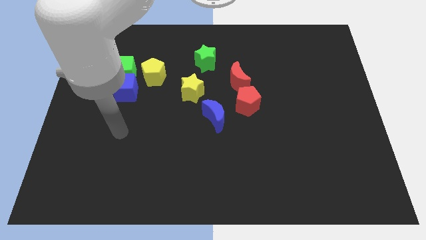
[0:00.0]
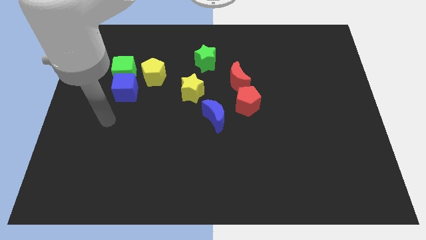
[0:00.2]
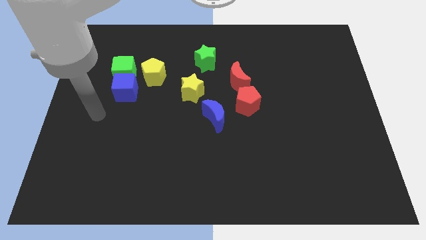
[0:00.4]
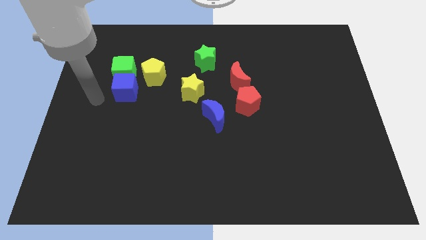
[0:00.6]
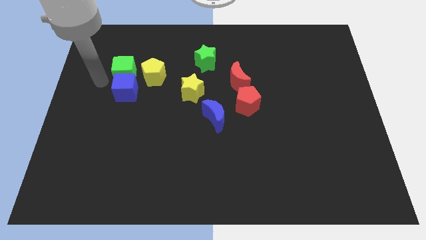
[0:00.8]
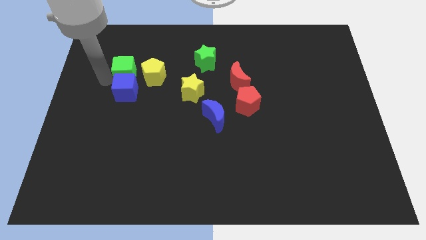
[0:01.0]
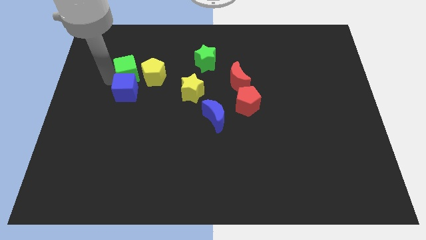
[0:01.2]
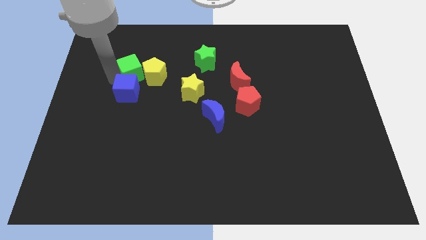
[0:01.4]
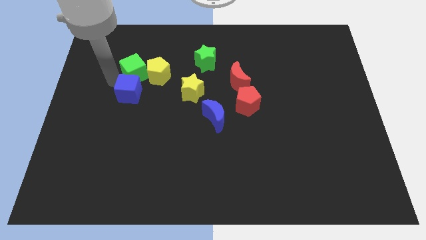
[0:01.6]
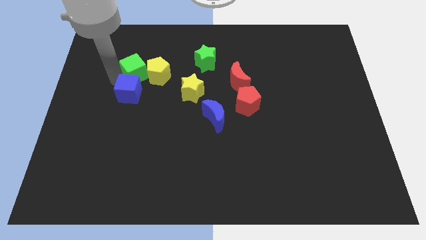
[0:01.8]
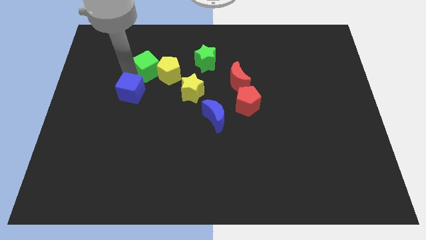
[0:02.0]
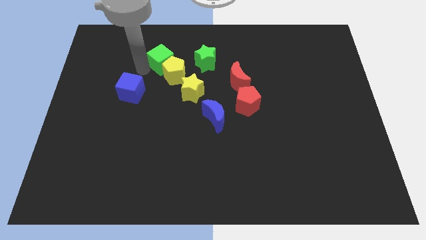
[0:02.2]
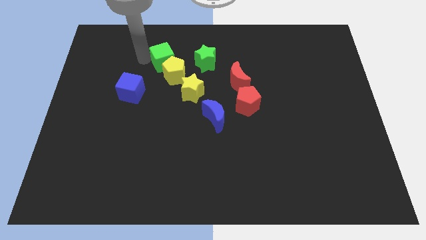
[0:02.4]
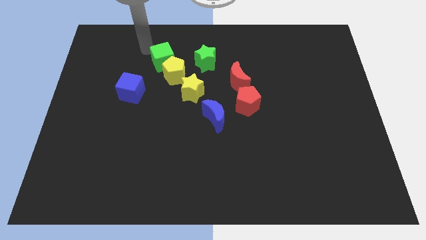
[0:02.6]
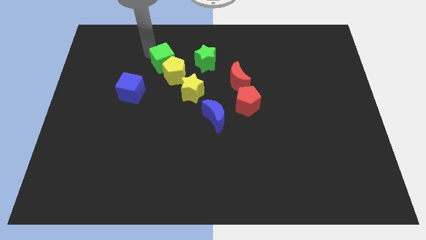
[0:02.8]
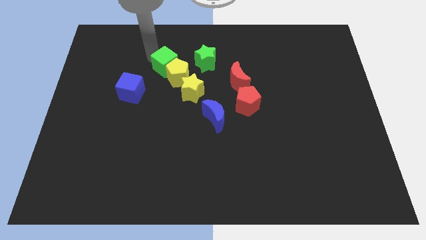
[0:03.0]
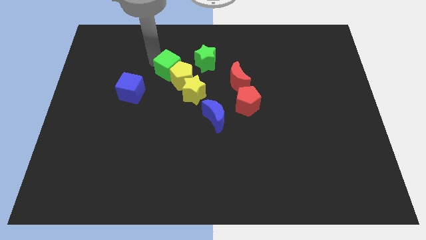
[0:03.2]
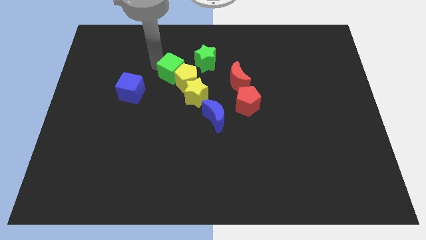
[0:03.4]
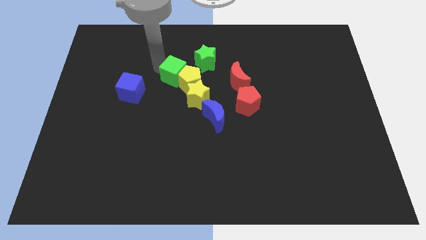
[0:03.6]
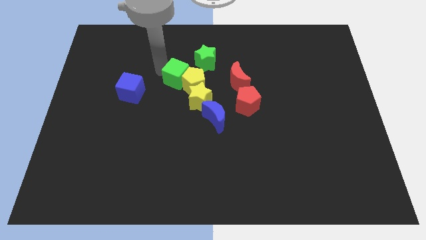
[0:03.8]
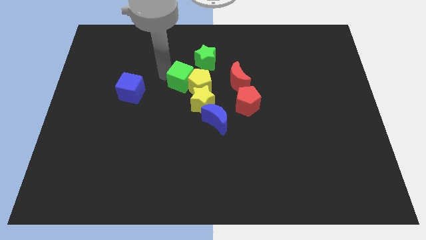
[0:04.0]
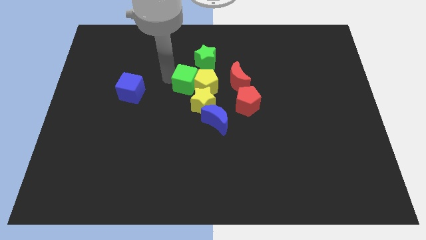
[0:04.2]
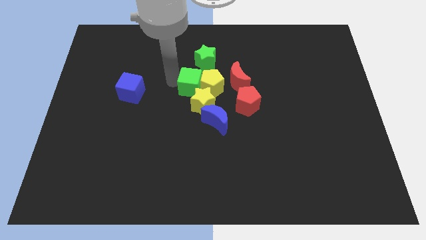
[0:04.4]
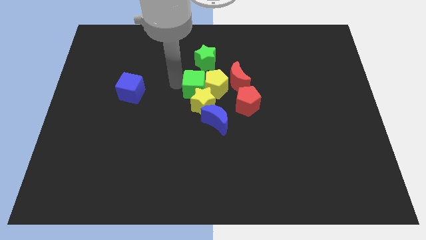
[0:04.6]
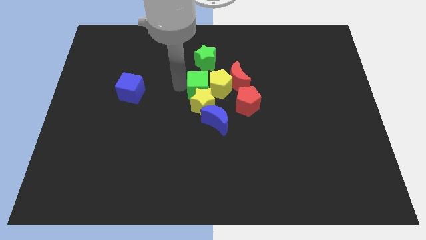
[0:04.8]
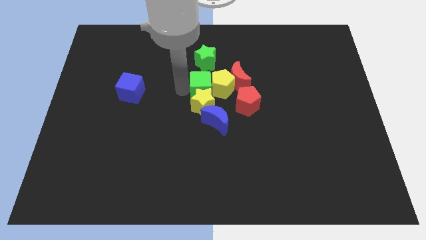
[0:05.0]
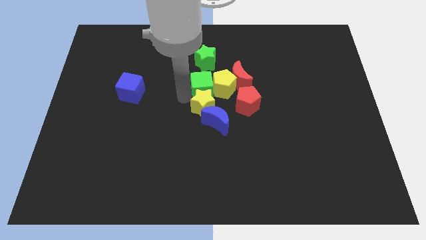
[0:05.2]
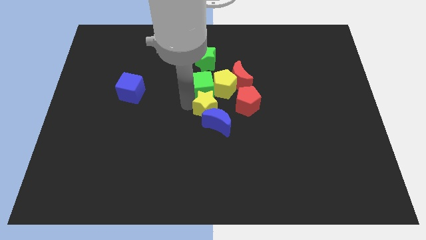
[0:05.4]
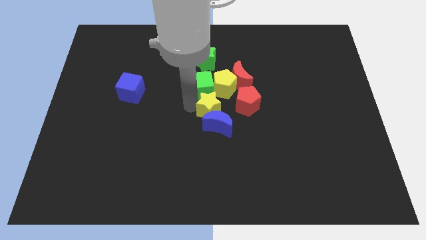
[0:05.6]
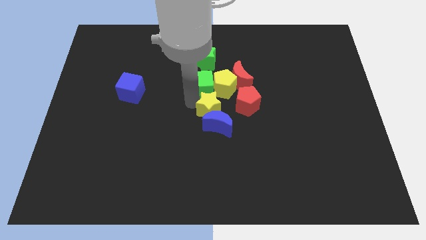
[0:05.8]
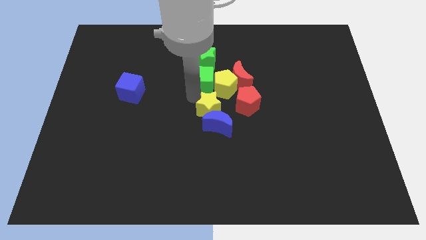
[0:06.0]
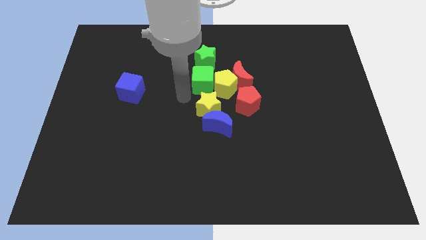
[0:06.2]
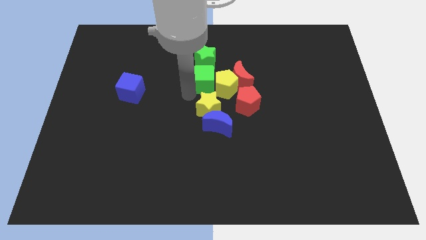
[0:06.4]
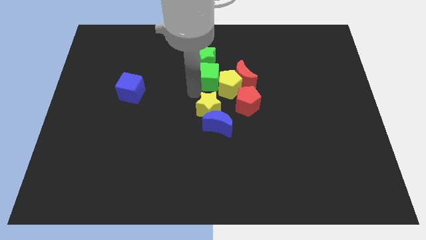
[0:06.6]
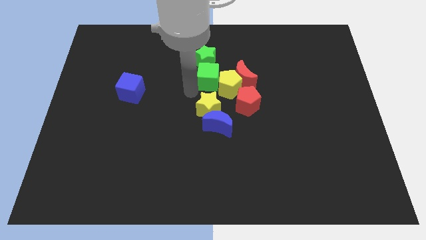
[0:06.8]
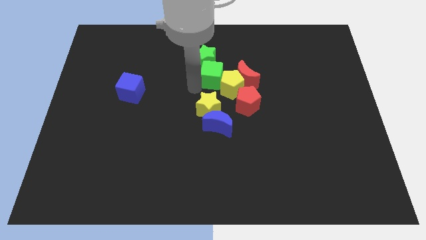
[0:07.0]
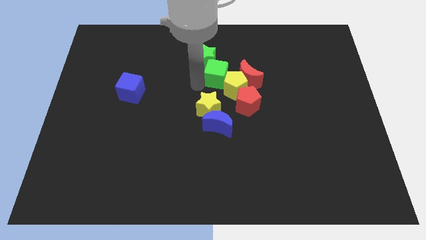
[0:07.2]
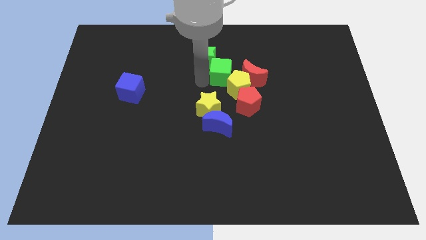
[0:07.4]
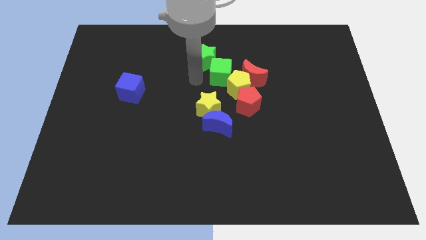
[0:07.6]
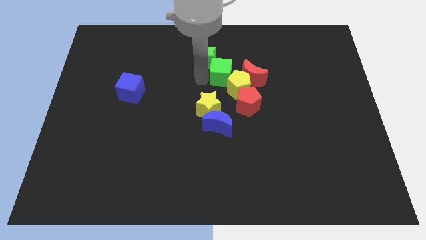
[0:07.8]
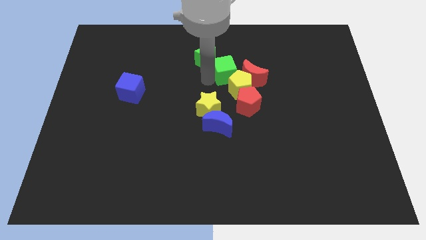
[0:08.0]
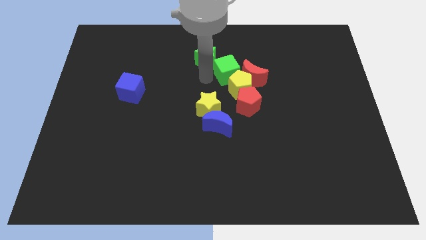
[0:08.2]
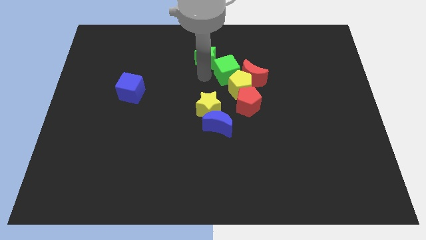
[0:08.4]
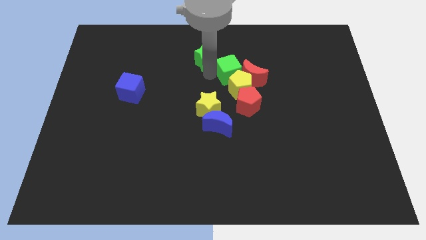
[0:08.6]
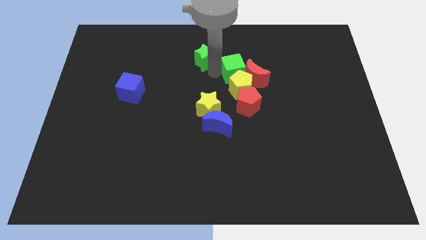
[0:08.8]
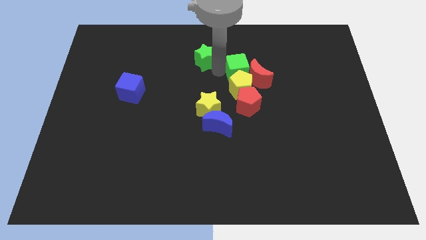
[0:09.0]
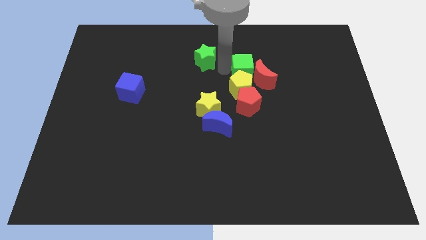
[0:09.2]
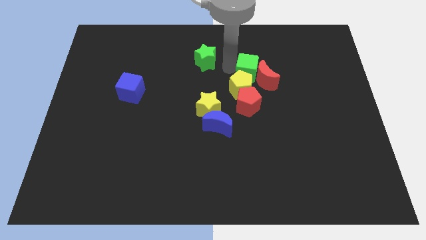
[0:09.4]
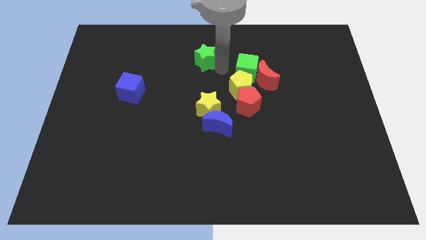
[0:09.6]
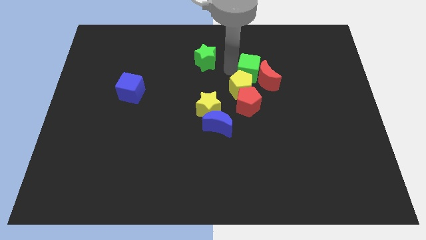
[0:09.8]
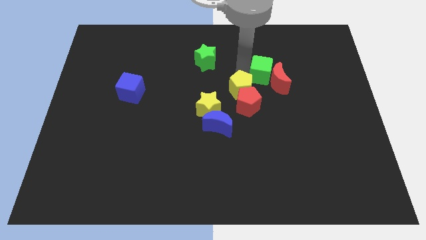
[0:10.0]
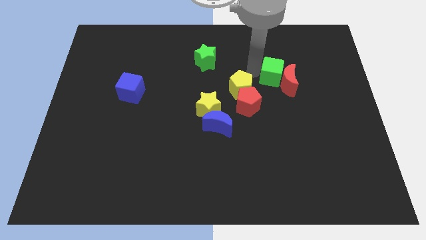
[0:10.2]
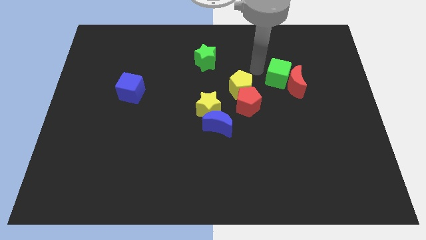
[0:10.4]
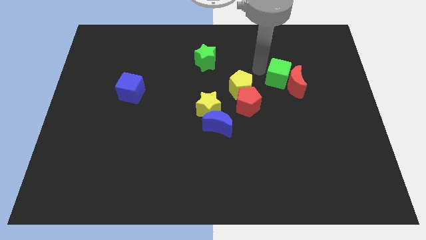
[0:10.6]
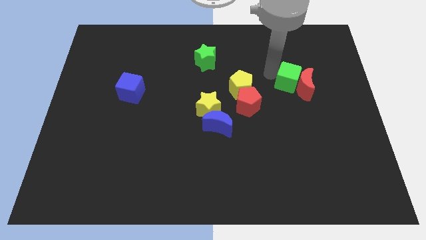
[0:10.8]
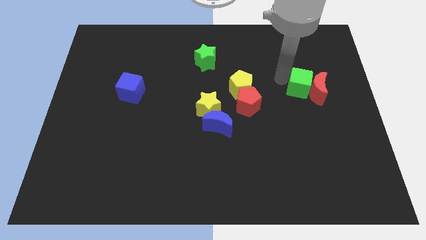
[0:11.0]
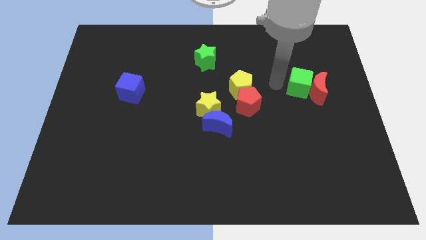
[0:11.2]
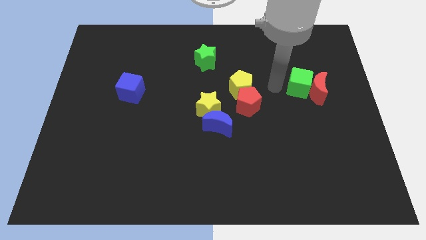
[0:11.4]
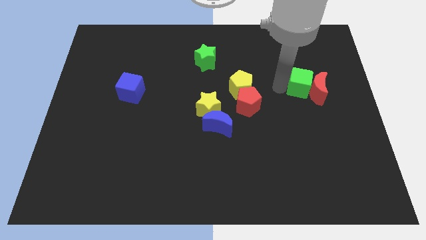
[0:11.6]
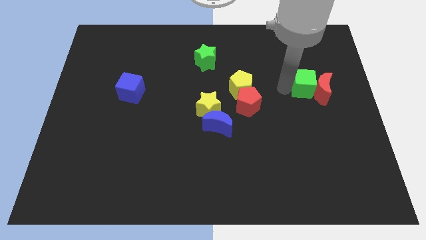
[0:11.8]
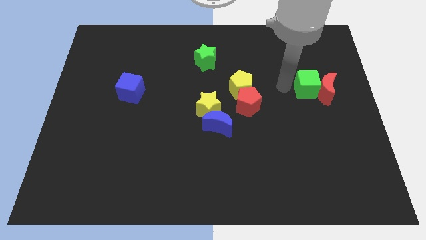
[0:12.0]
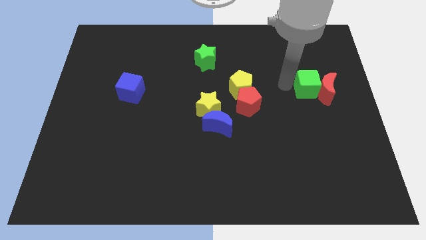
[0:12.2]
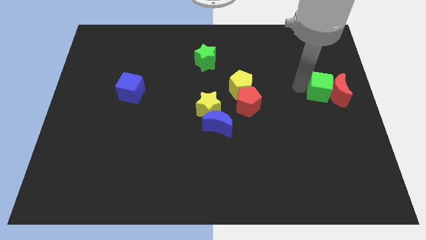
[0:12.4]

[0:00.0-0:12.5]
put the green cube to the right side of the board

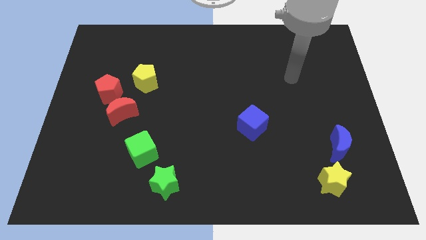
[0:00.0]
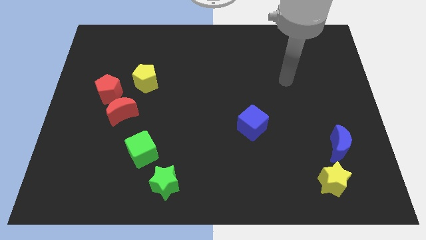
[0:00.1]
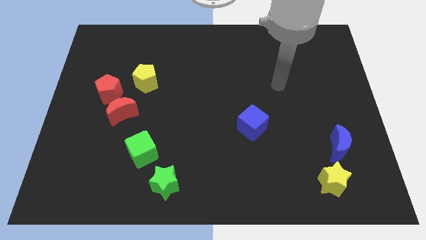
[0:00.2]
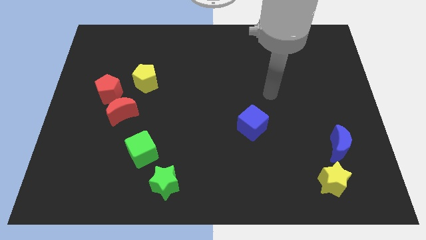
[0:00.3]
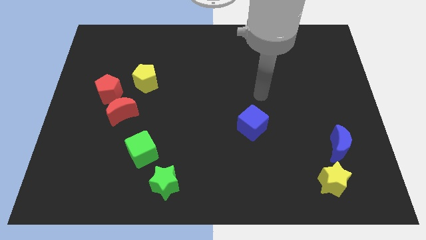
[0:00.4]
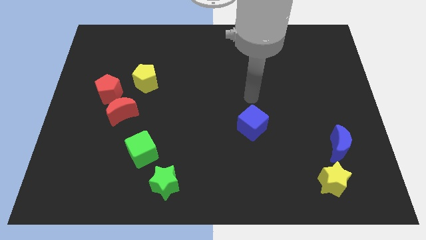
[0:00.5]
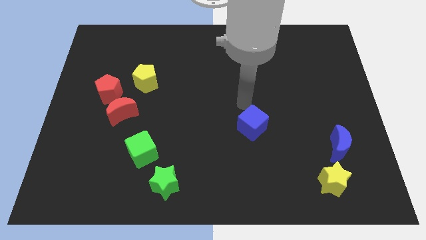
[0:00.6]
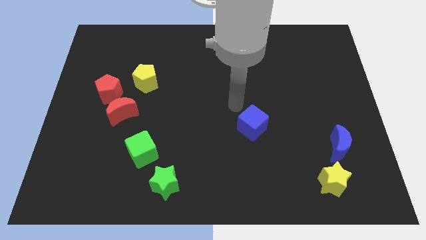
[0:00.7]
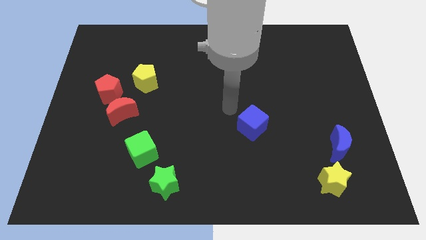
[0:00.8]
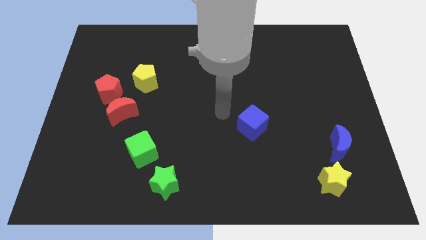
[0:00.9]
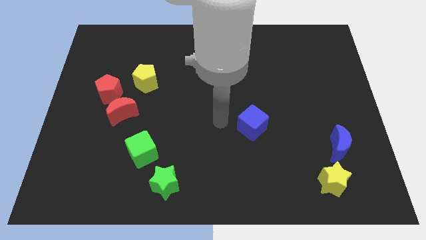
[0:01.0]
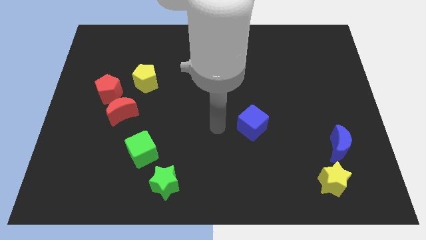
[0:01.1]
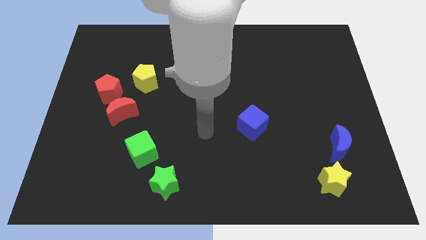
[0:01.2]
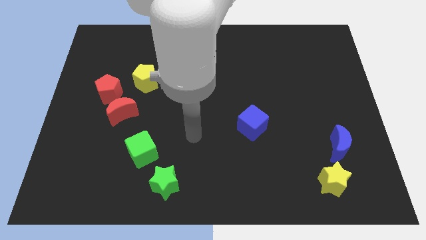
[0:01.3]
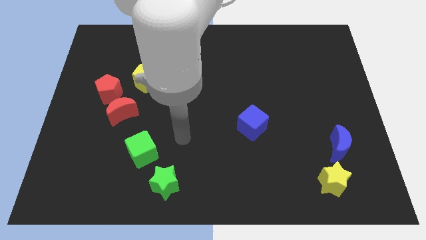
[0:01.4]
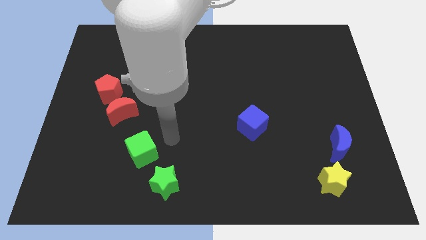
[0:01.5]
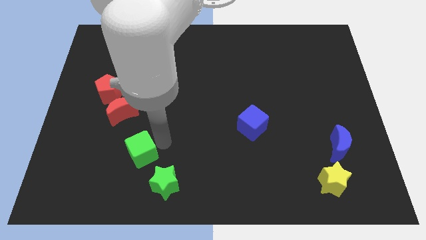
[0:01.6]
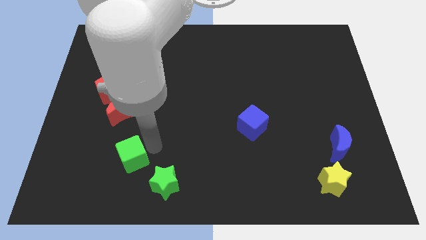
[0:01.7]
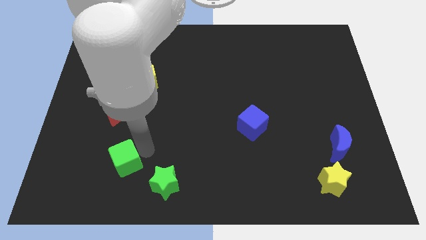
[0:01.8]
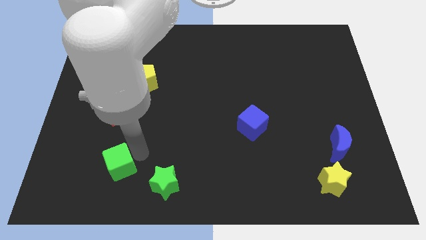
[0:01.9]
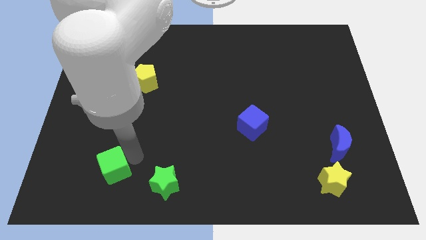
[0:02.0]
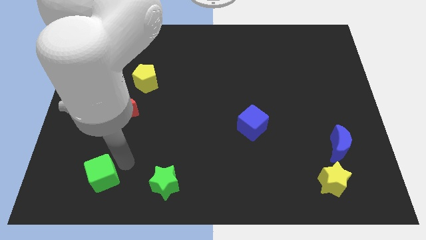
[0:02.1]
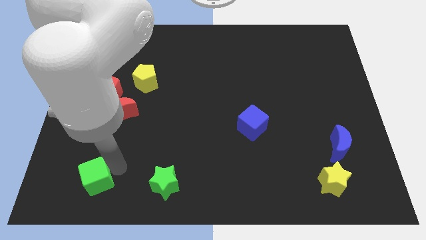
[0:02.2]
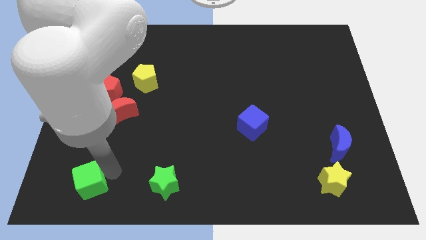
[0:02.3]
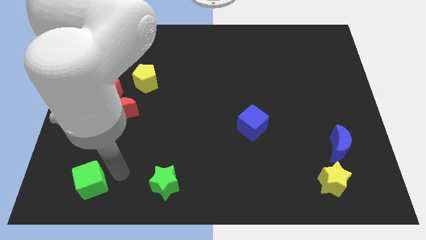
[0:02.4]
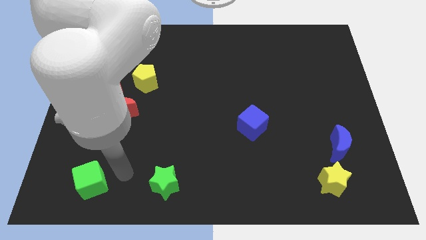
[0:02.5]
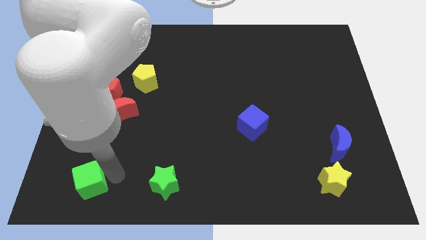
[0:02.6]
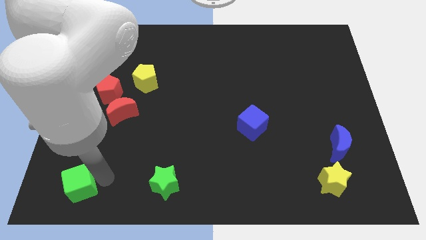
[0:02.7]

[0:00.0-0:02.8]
move the green cube to the bottom left of the board
